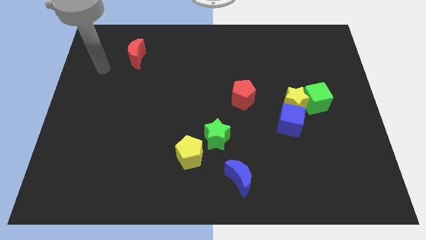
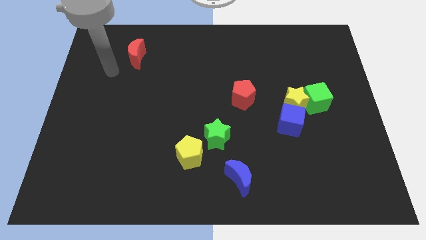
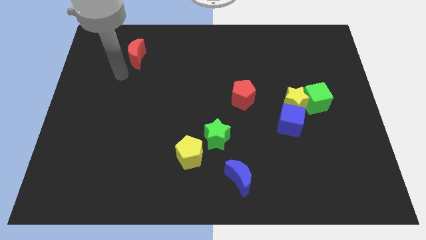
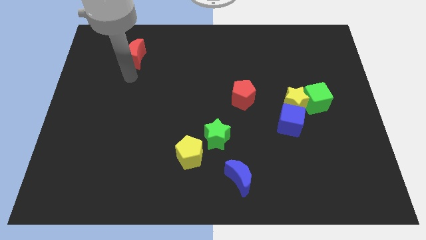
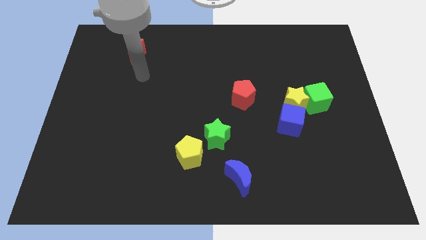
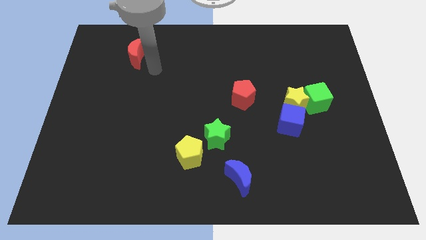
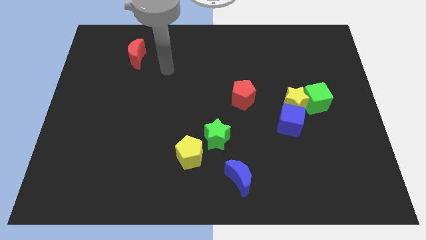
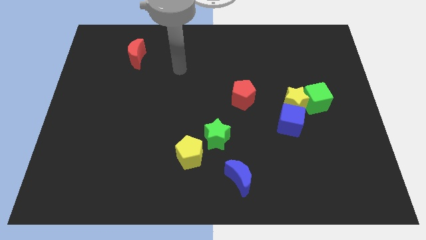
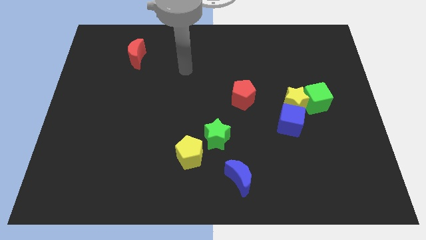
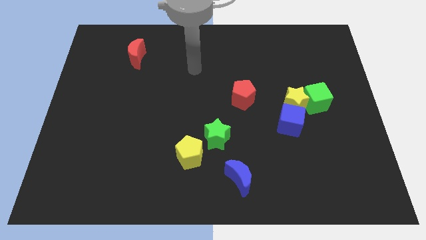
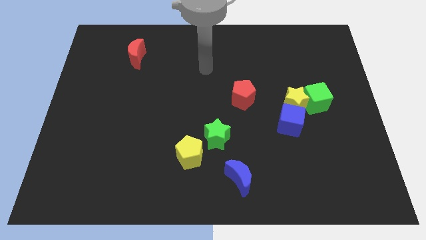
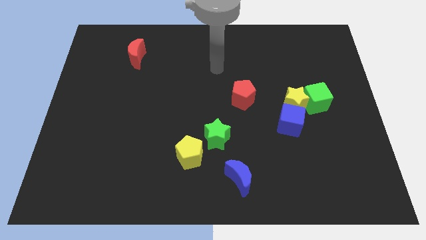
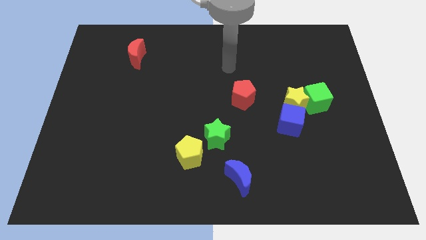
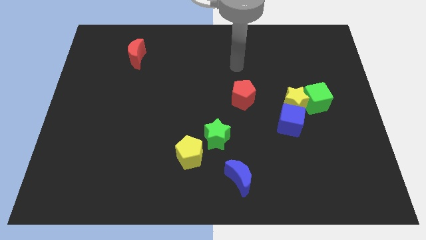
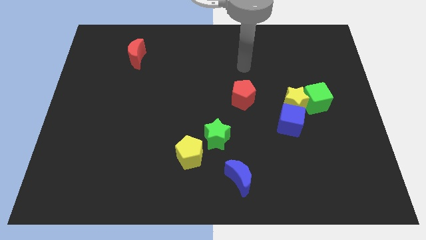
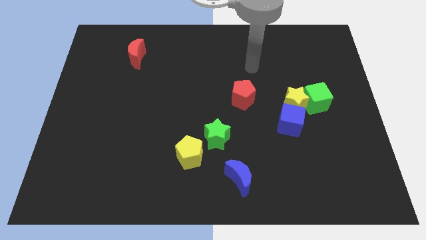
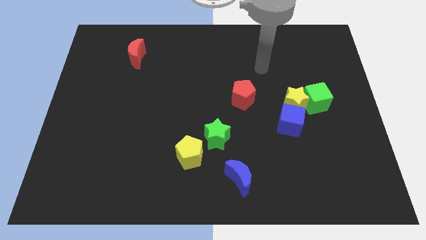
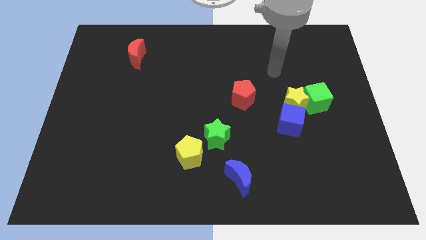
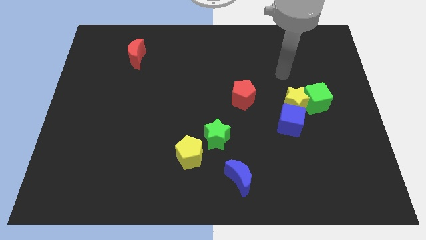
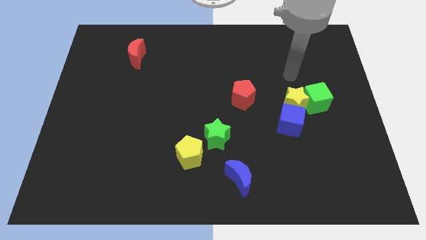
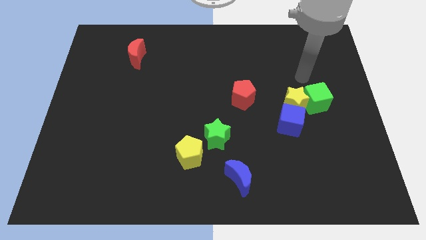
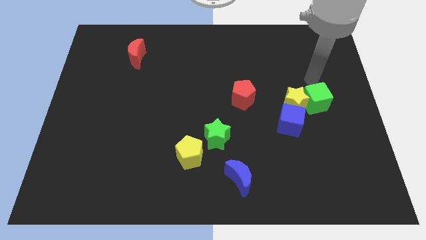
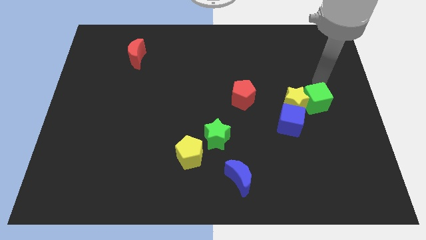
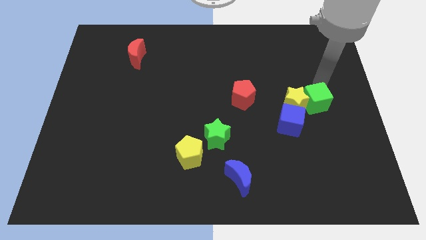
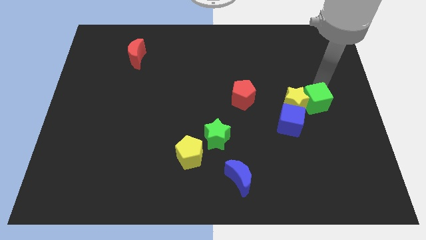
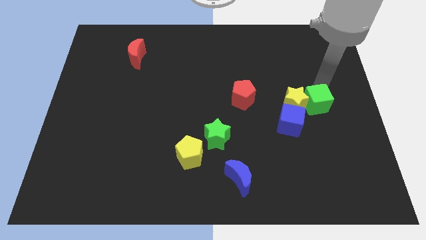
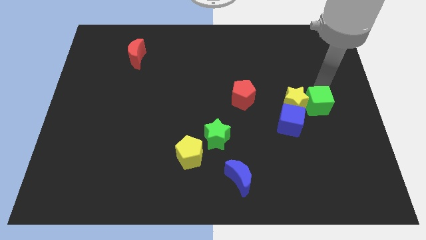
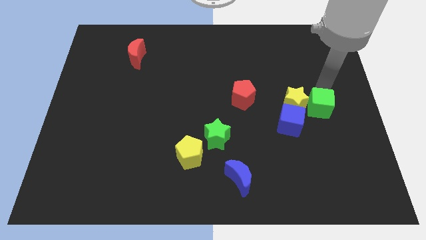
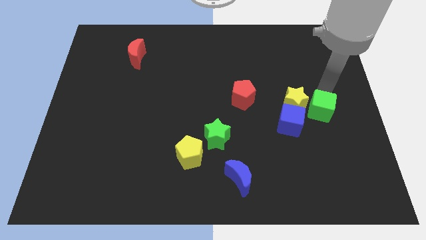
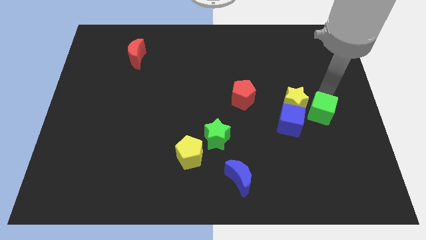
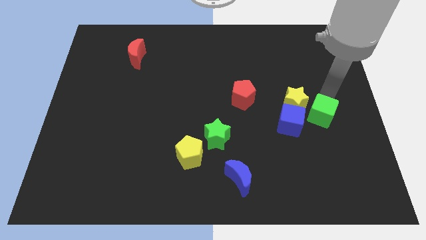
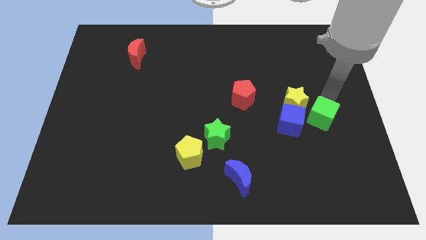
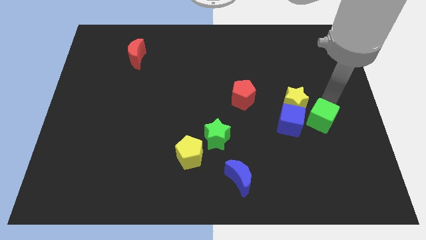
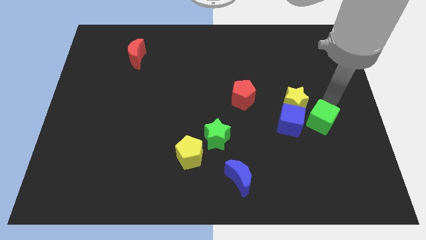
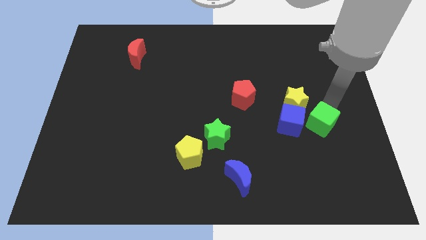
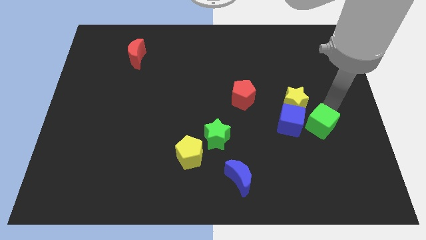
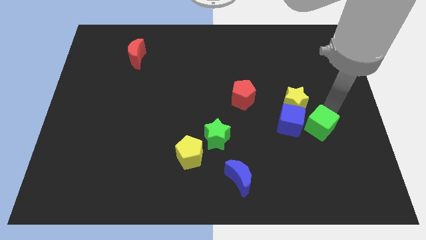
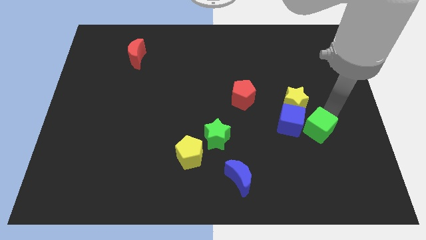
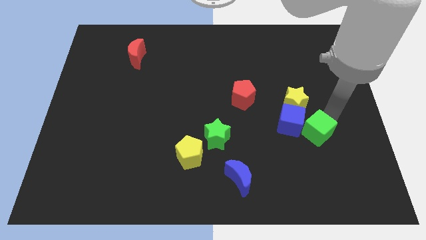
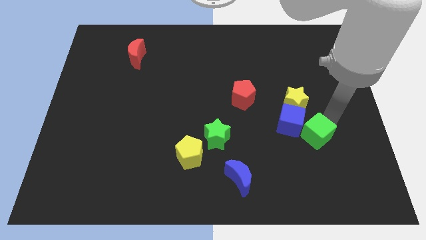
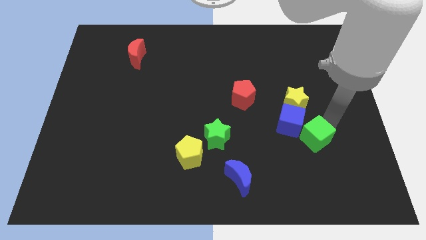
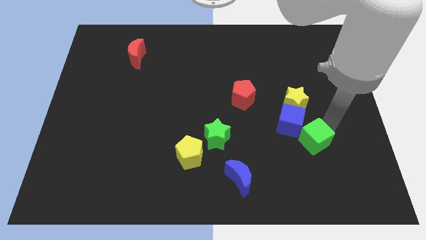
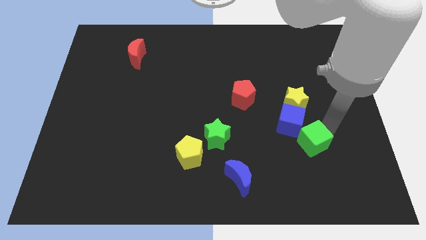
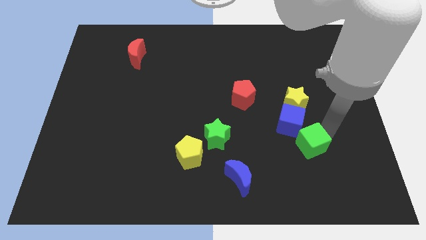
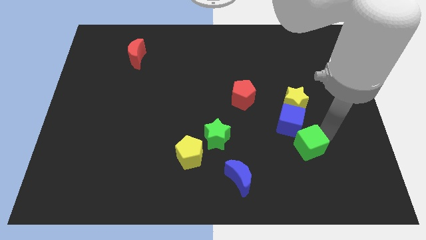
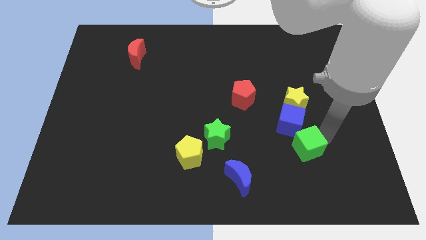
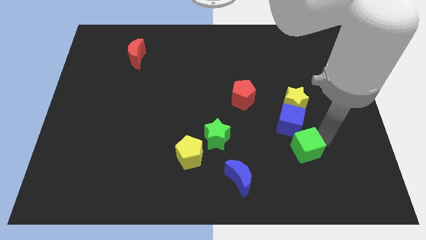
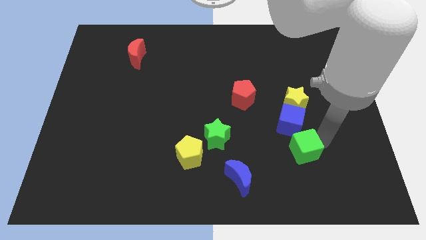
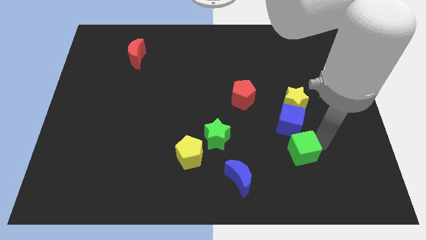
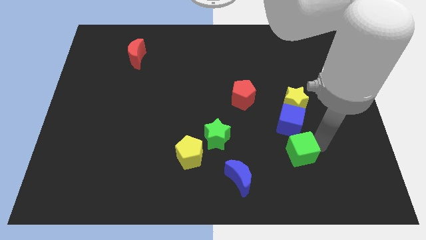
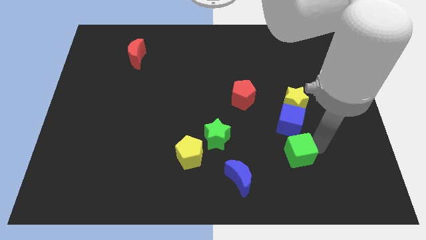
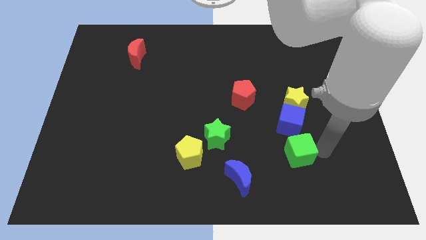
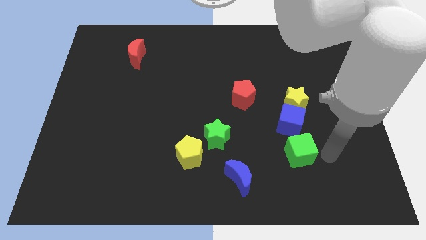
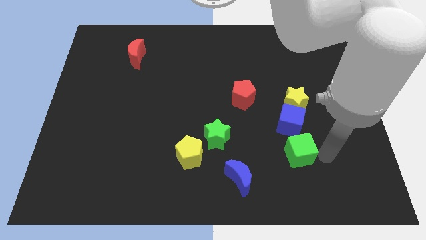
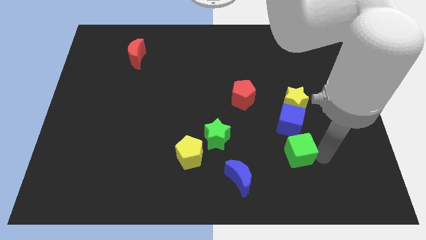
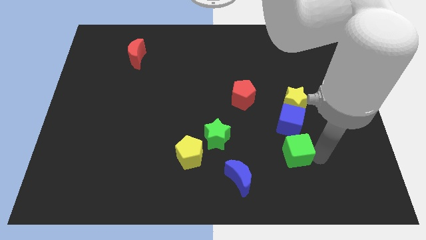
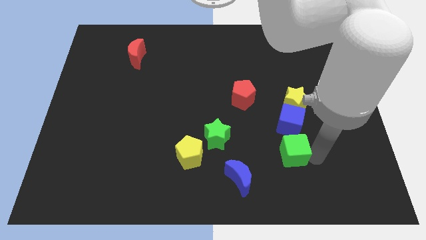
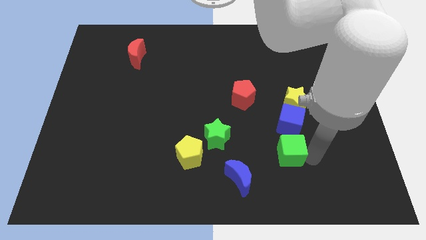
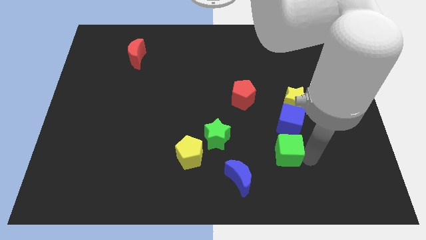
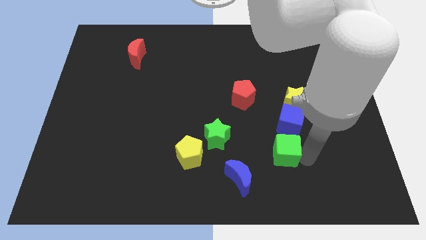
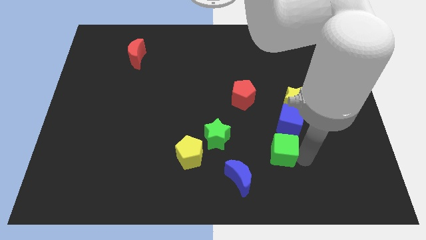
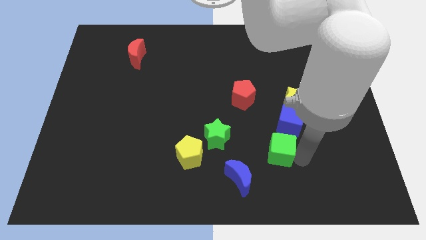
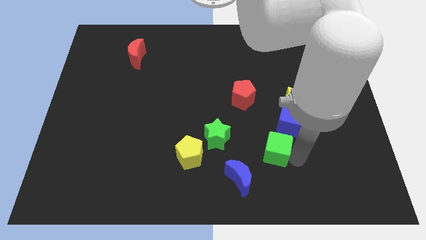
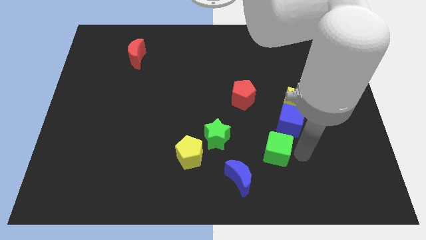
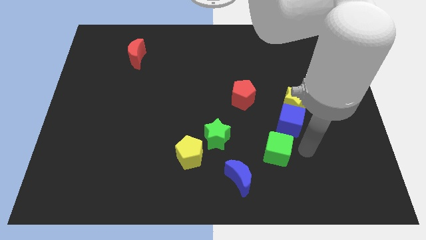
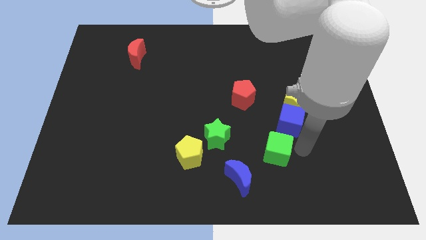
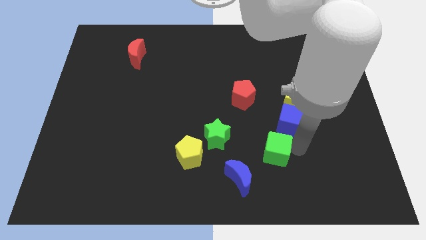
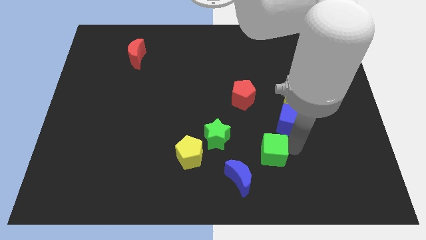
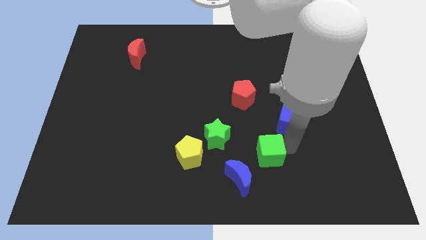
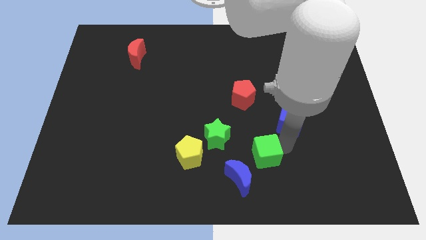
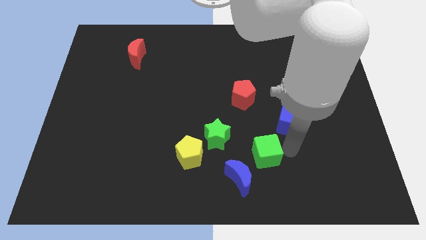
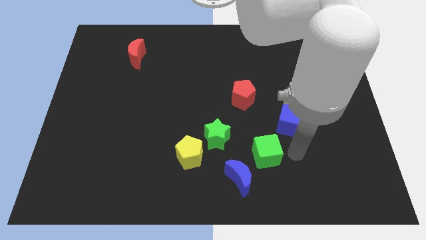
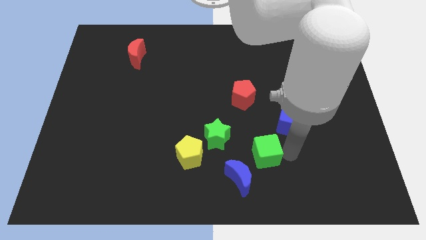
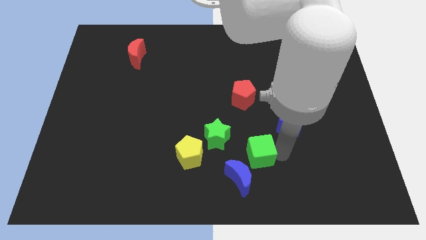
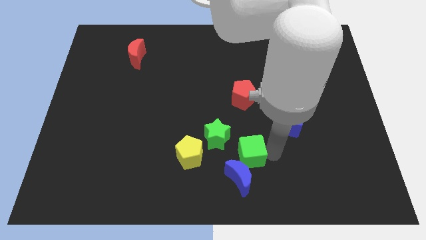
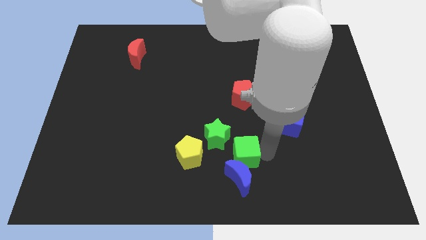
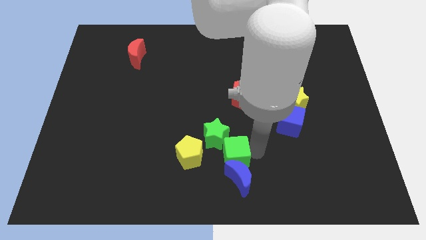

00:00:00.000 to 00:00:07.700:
push the green cube to the bottom side of the green star

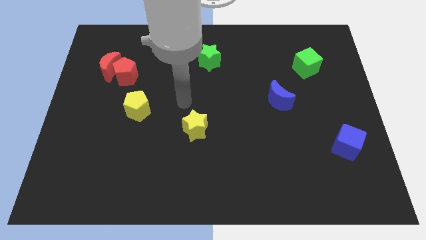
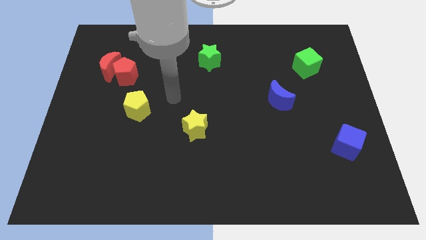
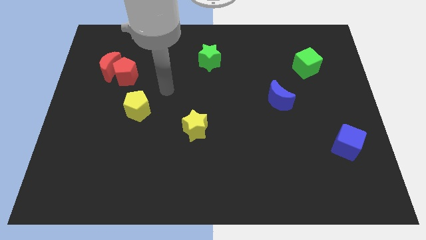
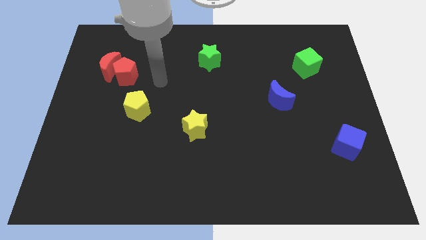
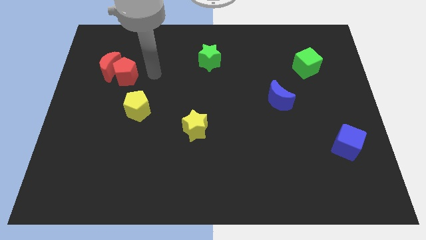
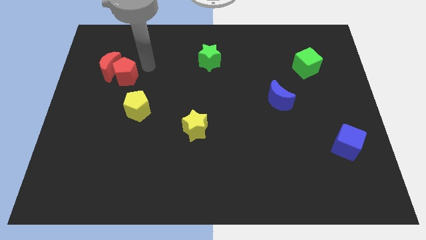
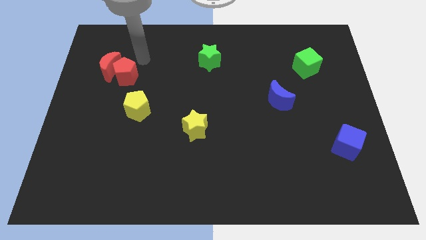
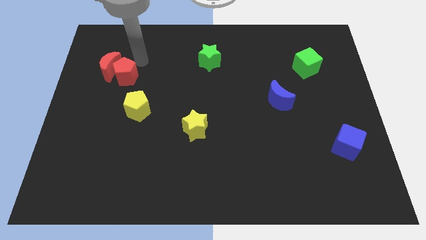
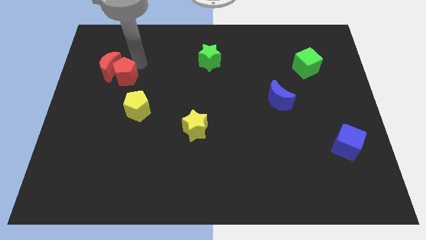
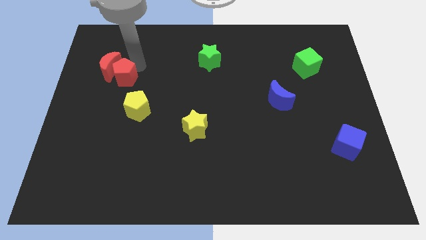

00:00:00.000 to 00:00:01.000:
push the red pentagon to the bottom side of the red moon
